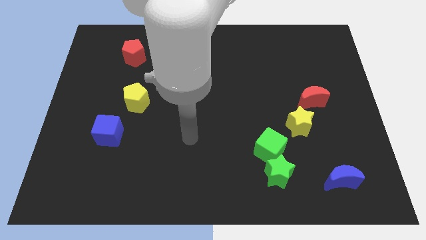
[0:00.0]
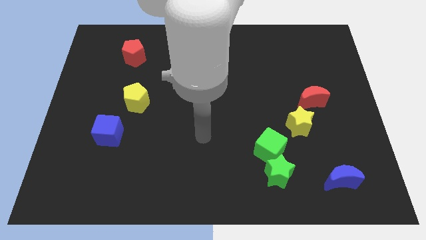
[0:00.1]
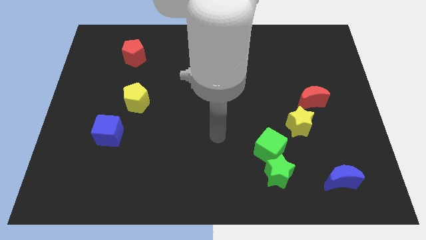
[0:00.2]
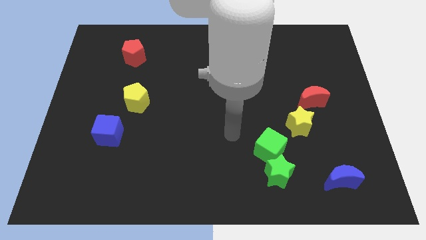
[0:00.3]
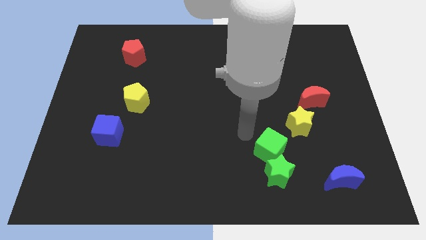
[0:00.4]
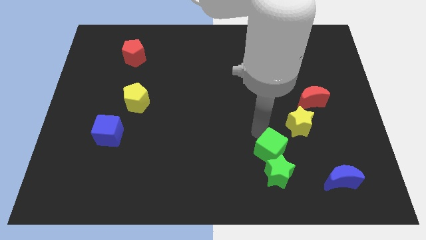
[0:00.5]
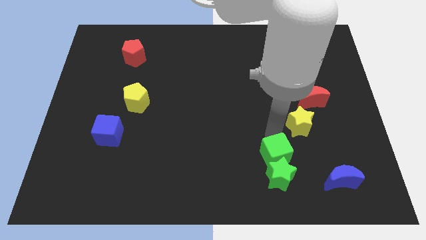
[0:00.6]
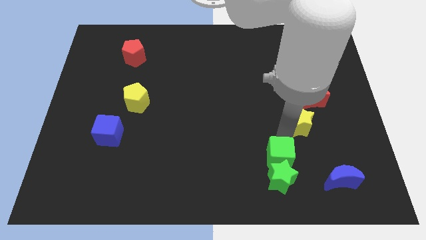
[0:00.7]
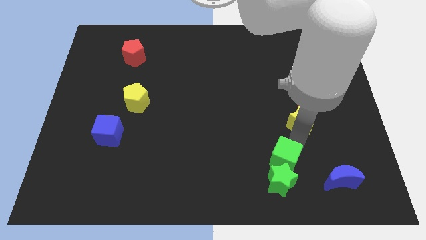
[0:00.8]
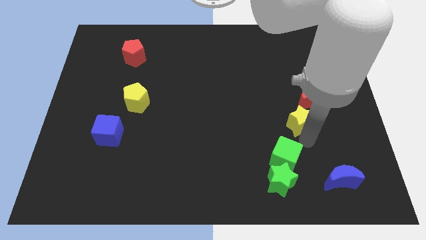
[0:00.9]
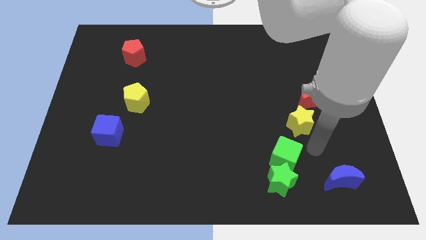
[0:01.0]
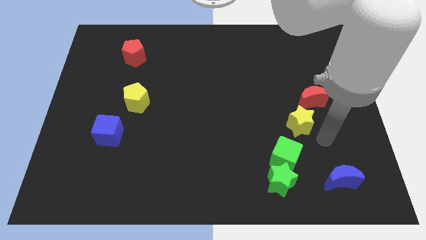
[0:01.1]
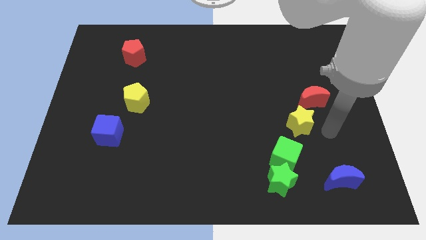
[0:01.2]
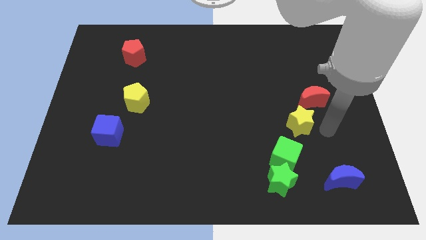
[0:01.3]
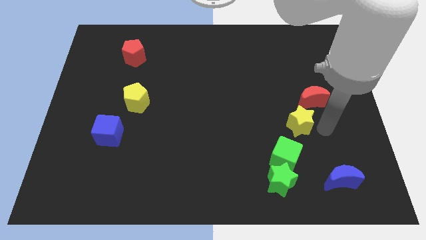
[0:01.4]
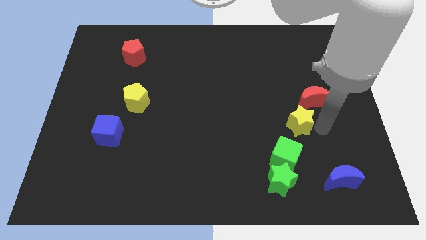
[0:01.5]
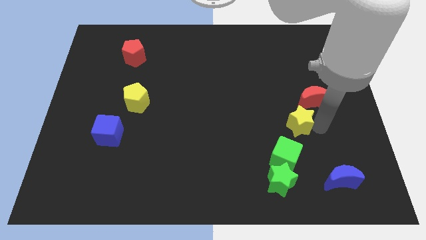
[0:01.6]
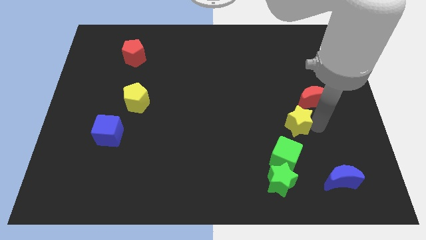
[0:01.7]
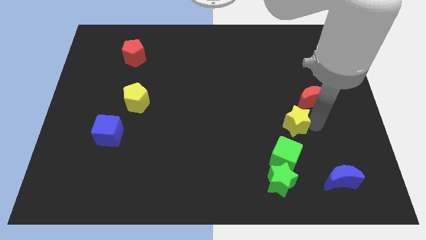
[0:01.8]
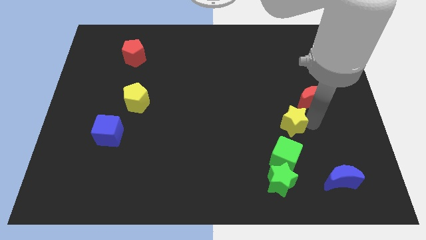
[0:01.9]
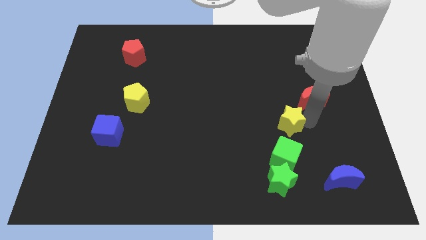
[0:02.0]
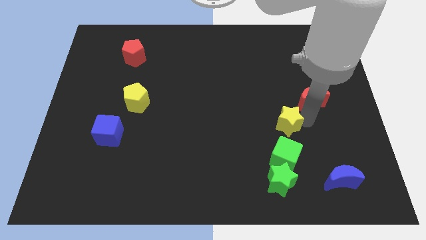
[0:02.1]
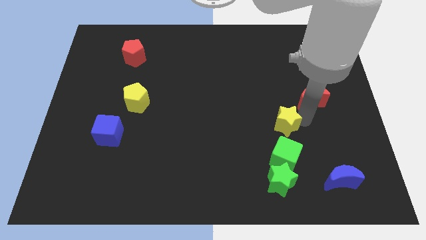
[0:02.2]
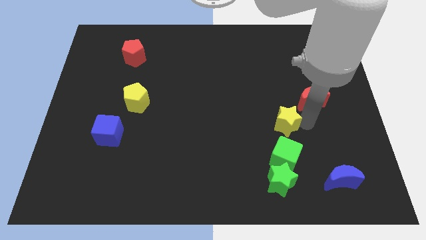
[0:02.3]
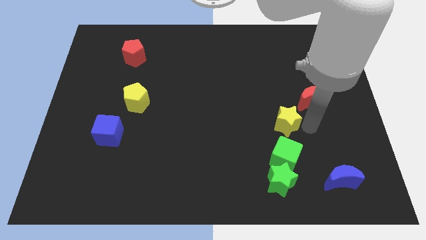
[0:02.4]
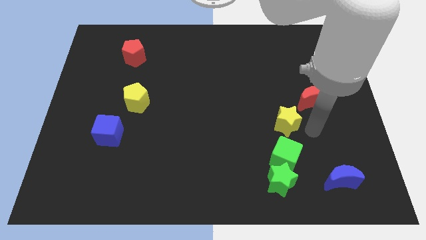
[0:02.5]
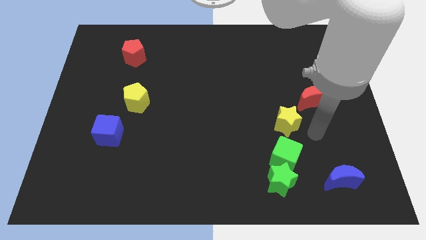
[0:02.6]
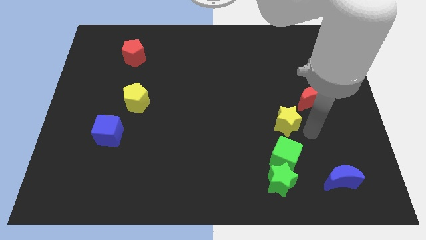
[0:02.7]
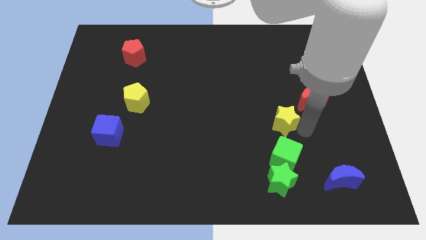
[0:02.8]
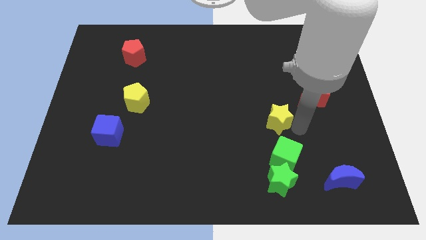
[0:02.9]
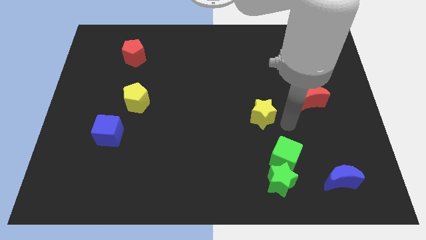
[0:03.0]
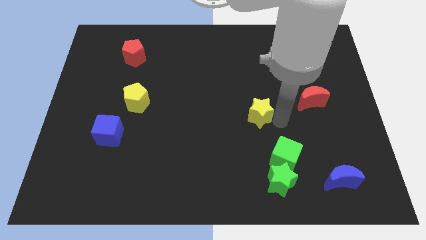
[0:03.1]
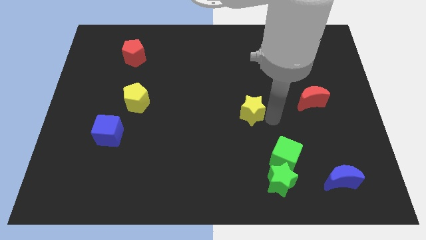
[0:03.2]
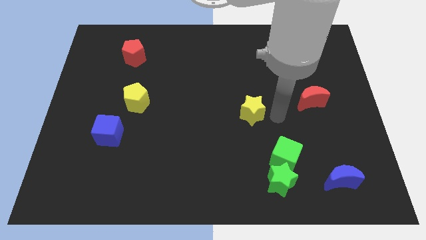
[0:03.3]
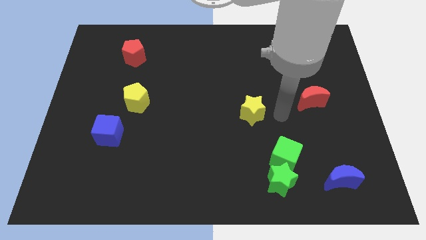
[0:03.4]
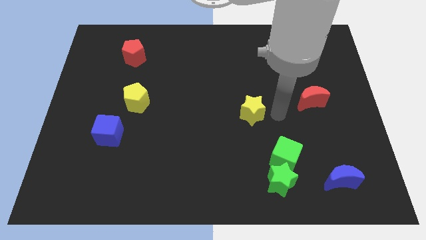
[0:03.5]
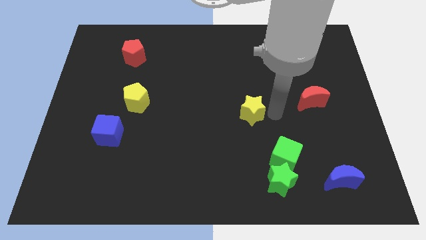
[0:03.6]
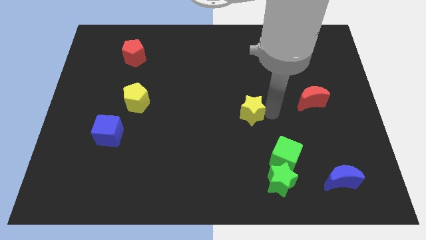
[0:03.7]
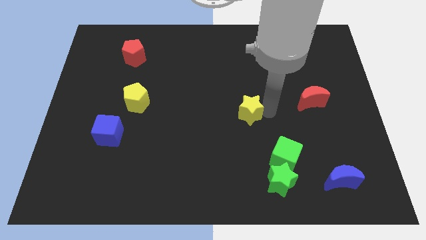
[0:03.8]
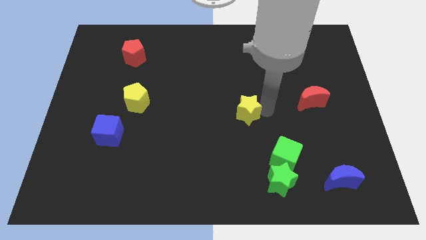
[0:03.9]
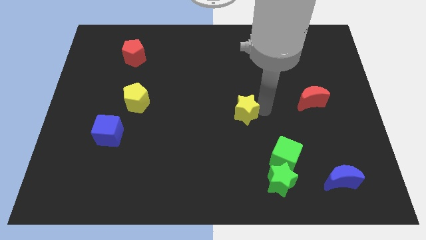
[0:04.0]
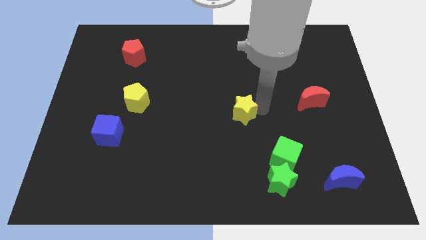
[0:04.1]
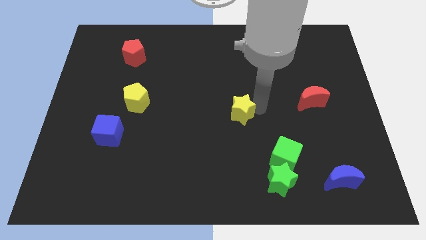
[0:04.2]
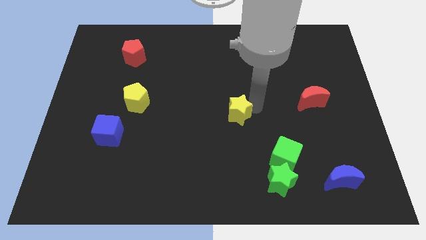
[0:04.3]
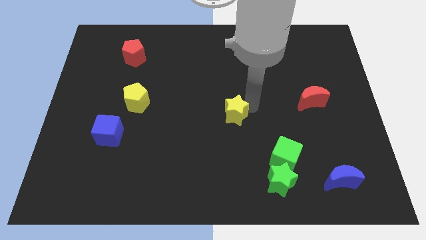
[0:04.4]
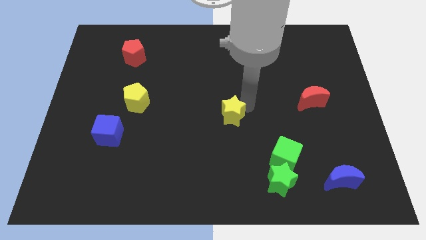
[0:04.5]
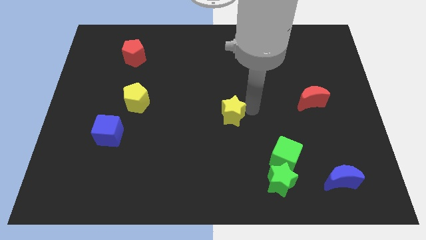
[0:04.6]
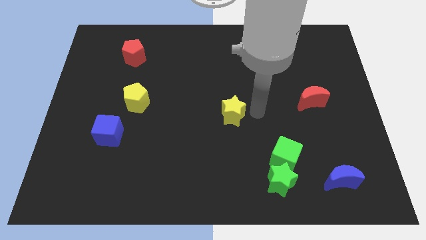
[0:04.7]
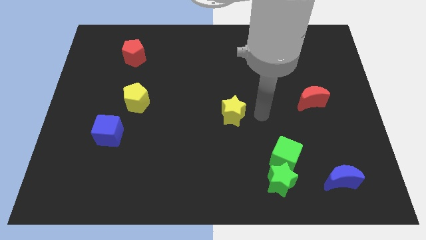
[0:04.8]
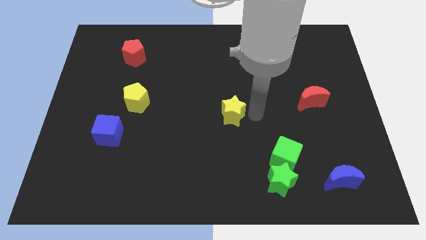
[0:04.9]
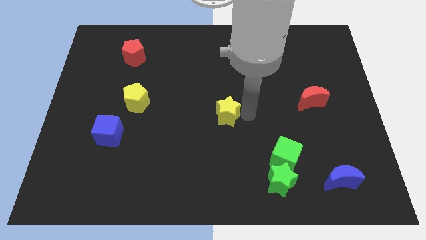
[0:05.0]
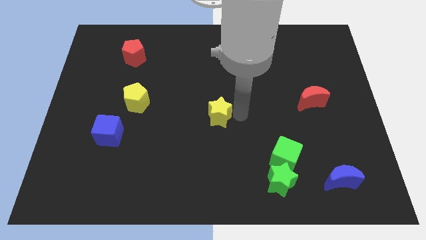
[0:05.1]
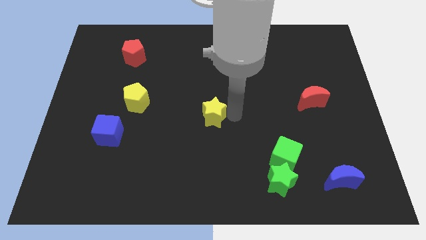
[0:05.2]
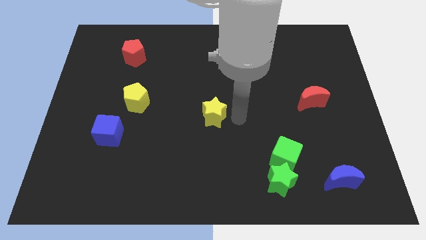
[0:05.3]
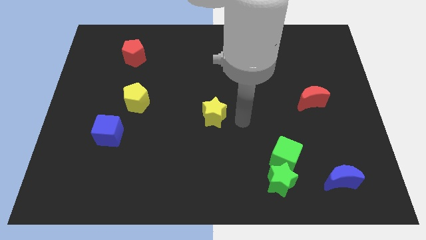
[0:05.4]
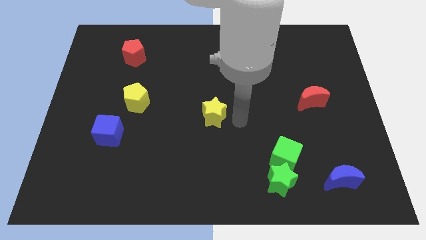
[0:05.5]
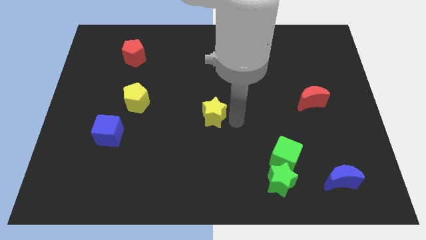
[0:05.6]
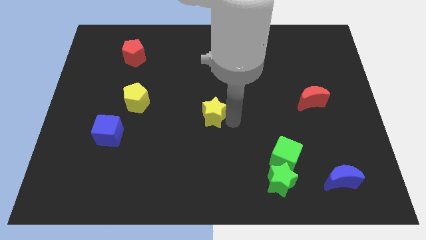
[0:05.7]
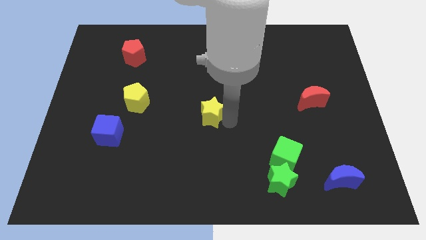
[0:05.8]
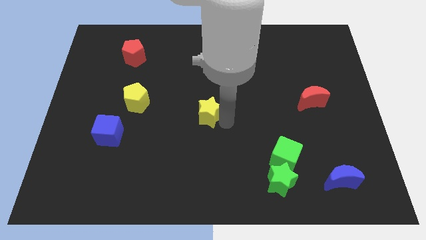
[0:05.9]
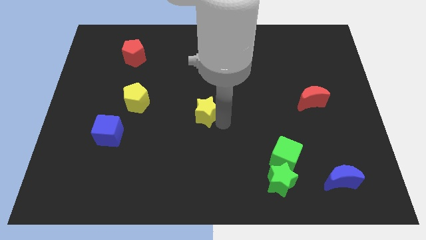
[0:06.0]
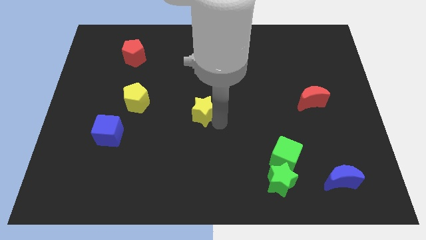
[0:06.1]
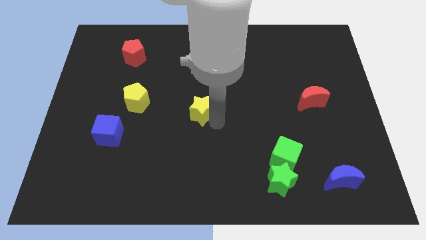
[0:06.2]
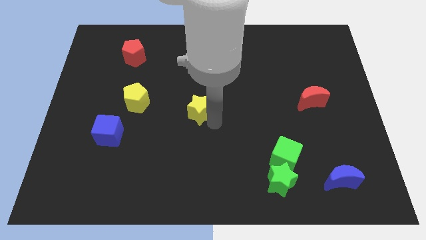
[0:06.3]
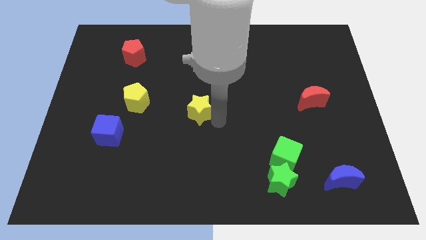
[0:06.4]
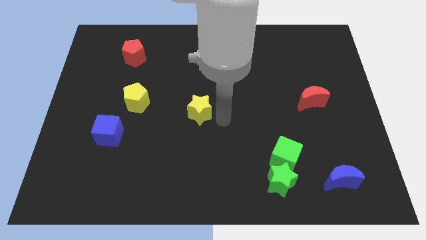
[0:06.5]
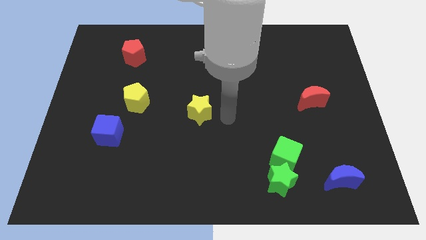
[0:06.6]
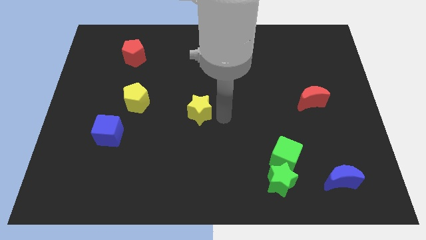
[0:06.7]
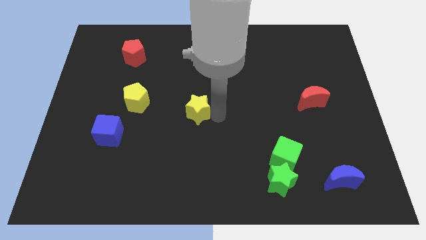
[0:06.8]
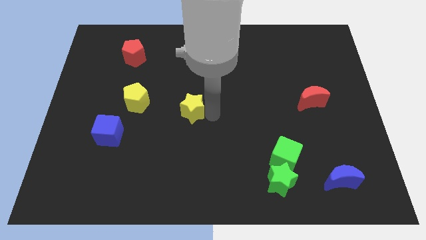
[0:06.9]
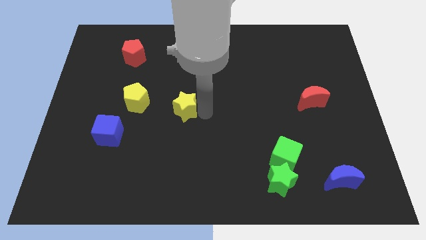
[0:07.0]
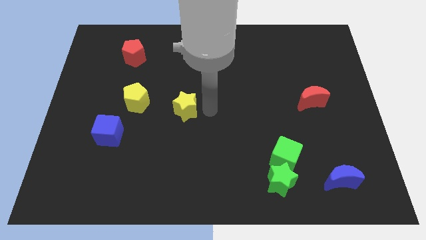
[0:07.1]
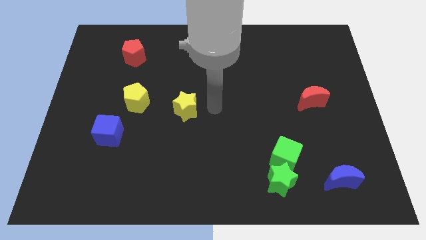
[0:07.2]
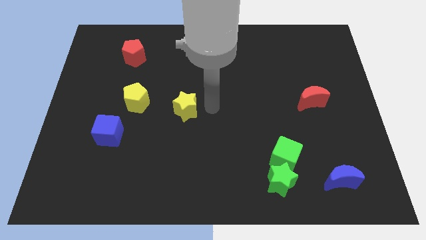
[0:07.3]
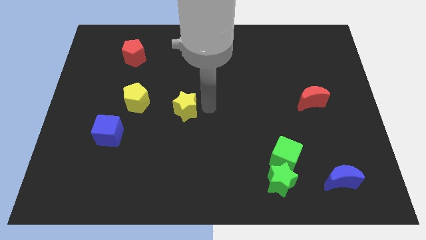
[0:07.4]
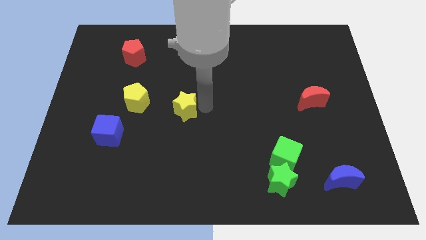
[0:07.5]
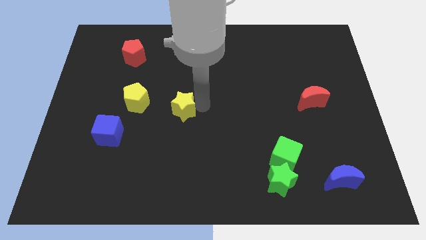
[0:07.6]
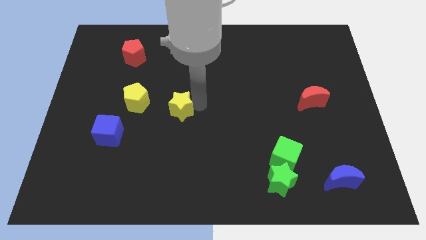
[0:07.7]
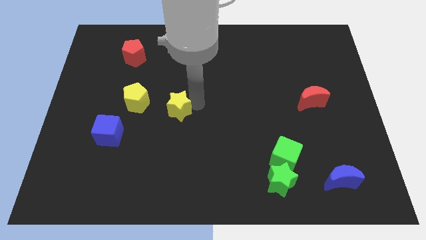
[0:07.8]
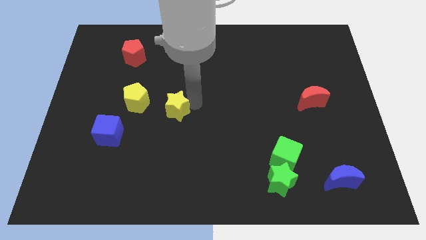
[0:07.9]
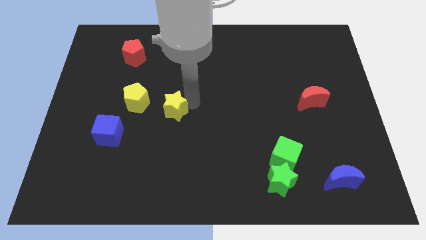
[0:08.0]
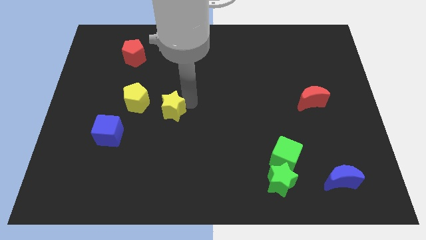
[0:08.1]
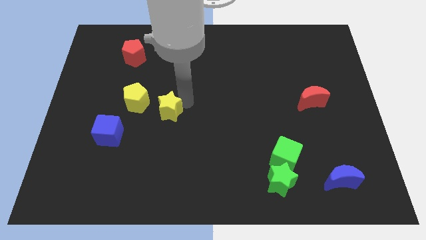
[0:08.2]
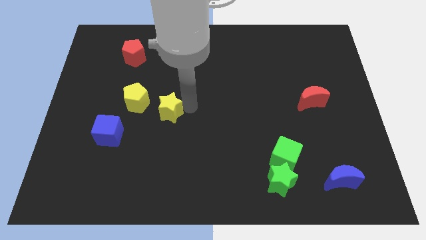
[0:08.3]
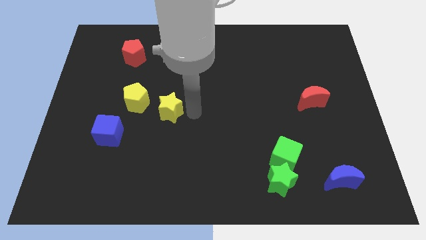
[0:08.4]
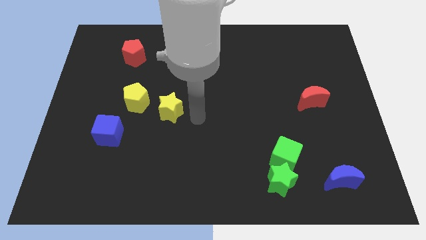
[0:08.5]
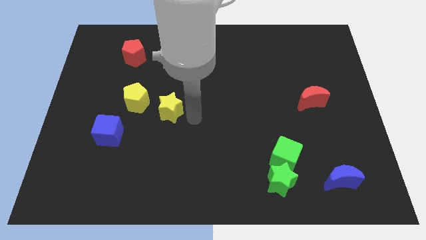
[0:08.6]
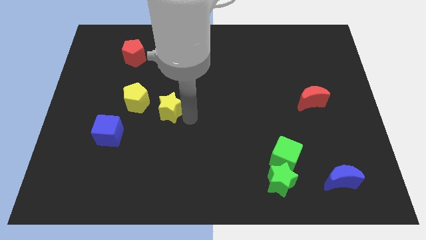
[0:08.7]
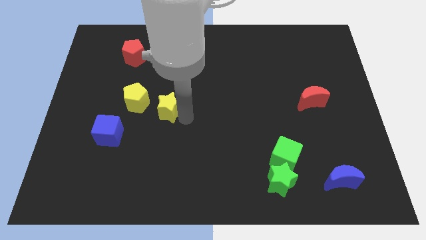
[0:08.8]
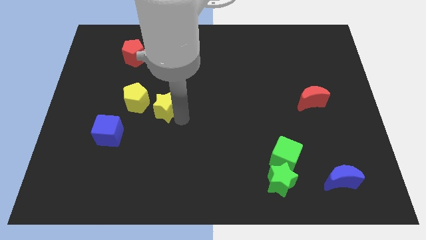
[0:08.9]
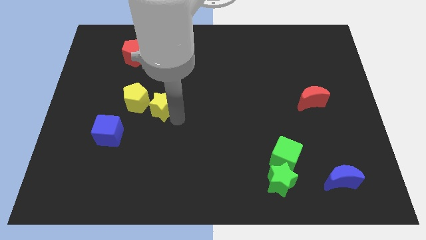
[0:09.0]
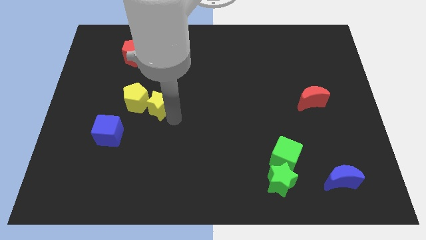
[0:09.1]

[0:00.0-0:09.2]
put the yellow star next to the yellow pentagon
